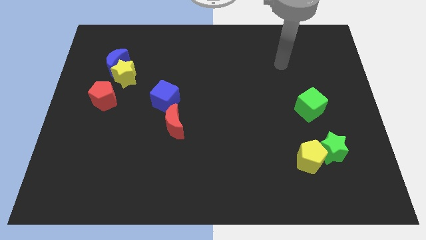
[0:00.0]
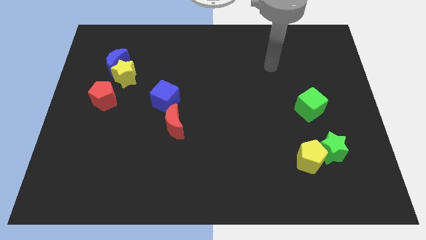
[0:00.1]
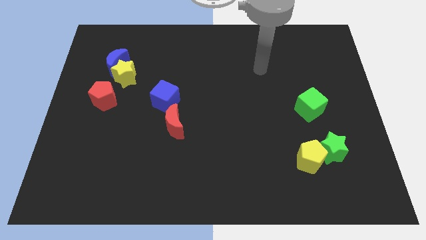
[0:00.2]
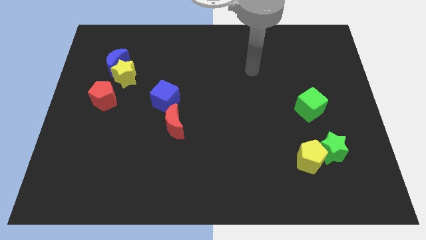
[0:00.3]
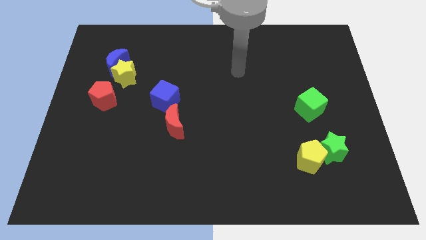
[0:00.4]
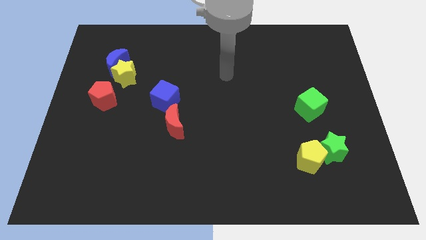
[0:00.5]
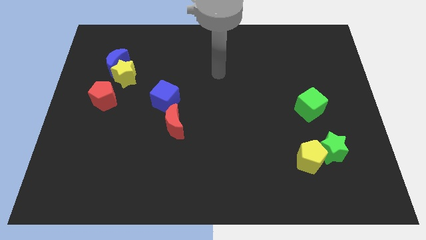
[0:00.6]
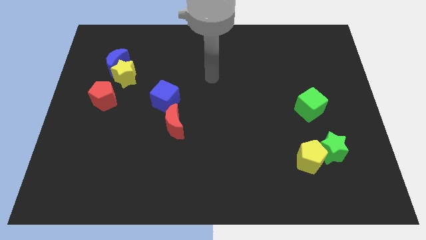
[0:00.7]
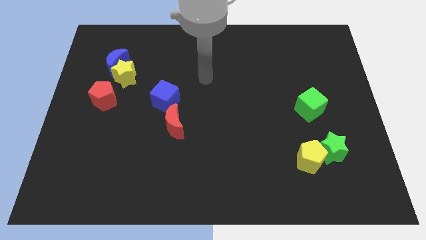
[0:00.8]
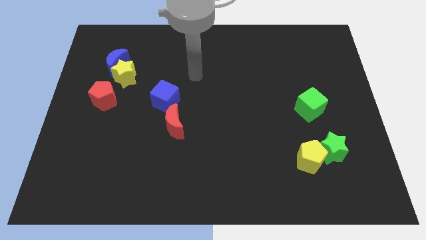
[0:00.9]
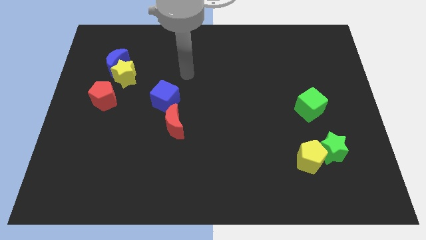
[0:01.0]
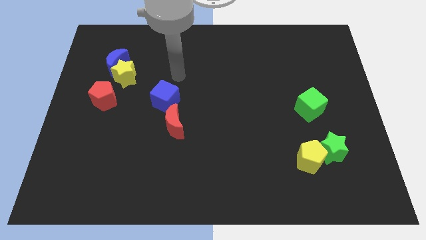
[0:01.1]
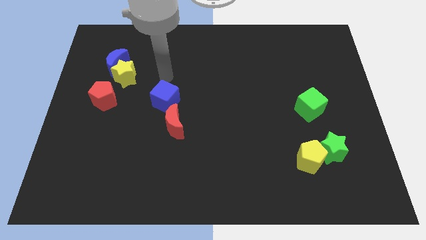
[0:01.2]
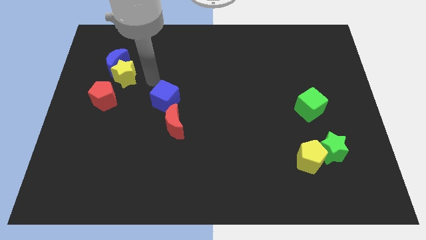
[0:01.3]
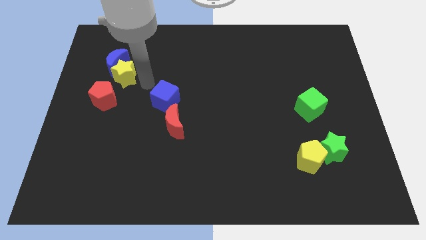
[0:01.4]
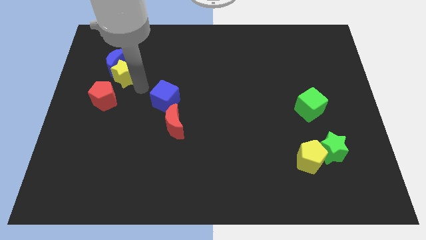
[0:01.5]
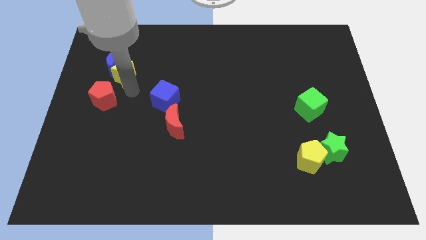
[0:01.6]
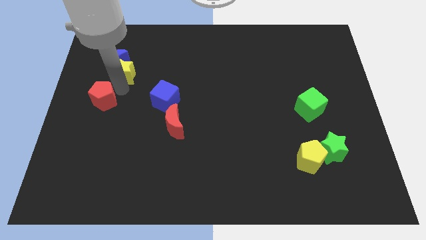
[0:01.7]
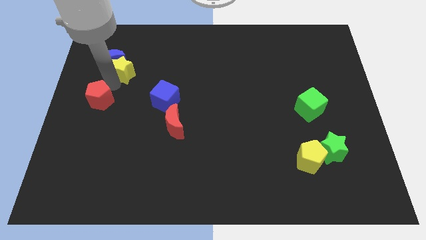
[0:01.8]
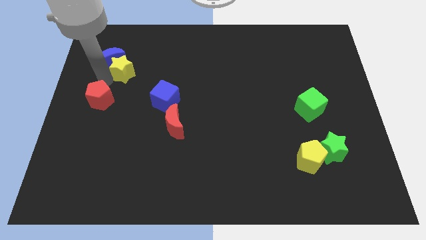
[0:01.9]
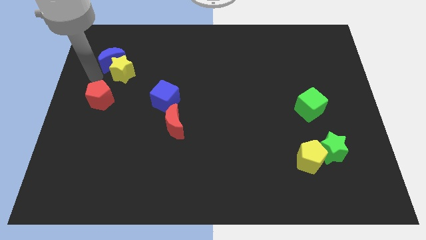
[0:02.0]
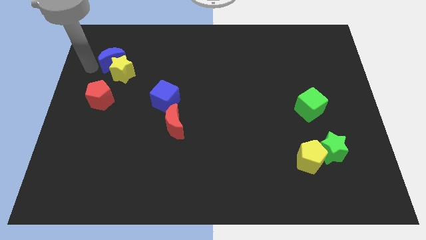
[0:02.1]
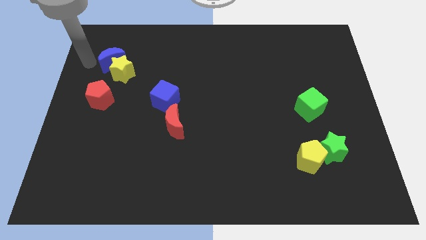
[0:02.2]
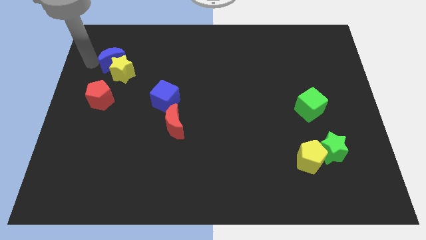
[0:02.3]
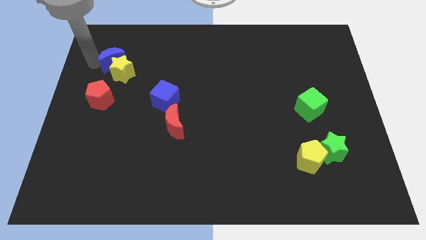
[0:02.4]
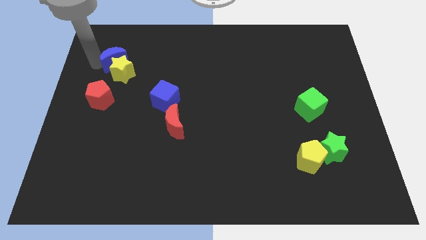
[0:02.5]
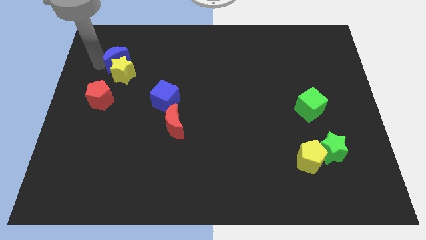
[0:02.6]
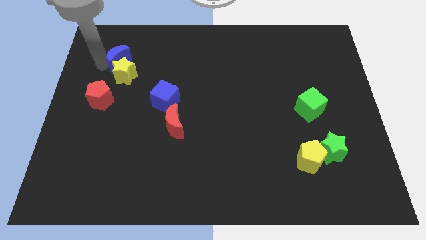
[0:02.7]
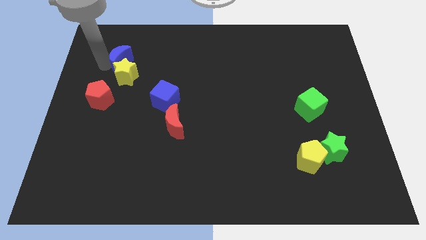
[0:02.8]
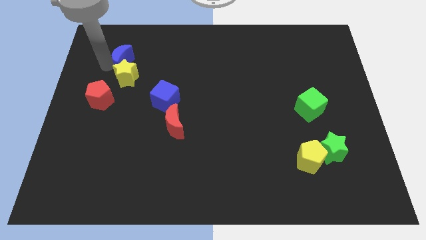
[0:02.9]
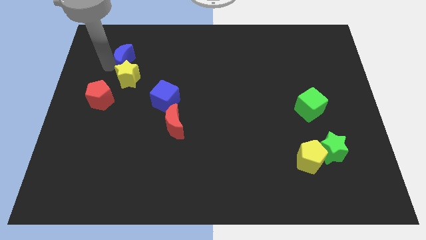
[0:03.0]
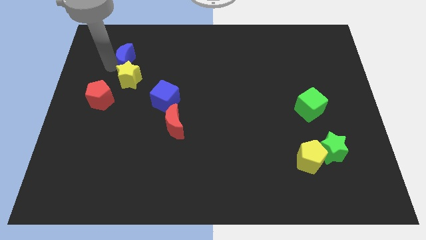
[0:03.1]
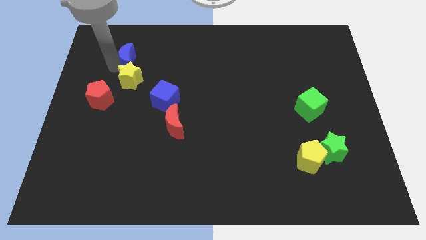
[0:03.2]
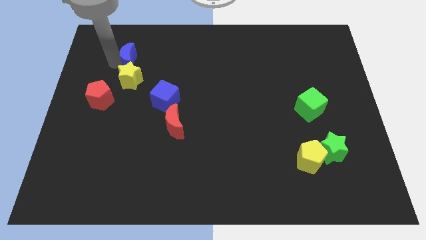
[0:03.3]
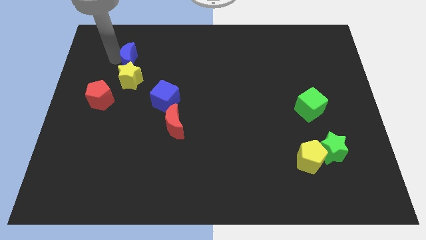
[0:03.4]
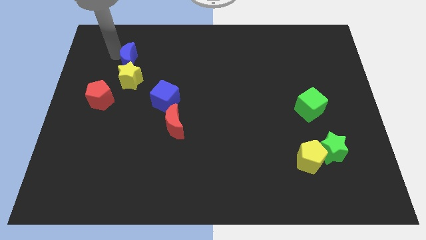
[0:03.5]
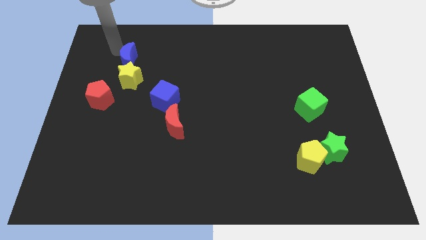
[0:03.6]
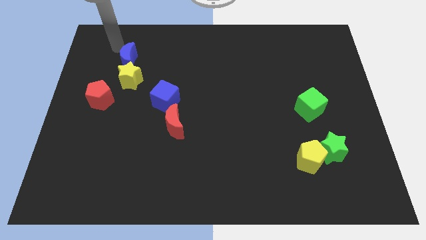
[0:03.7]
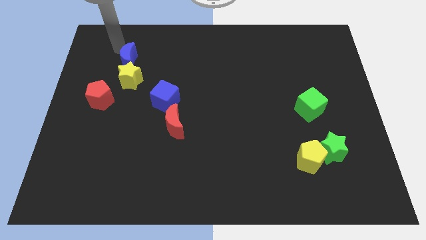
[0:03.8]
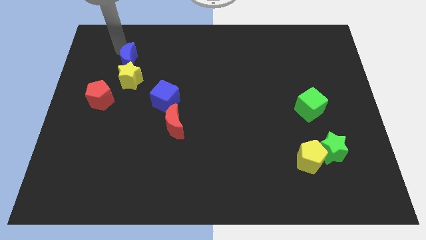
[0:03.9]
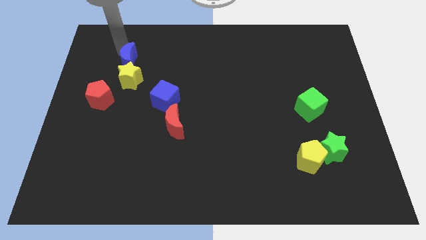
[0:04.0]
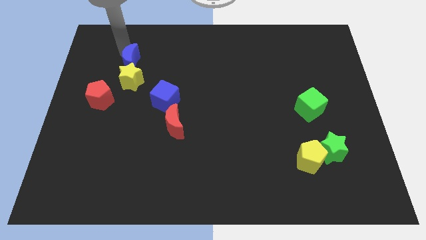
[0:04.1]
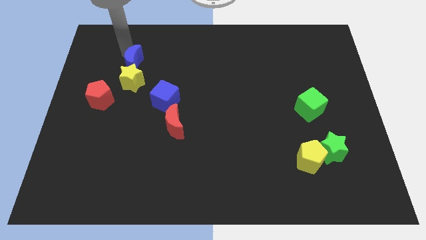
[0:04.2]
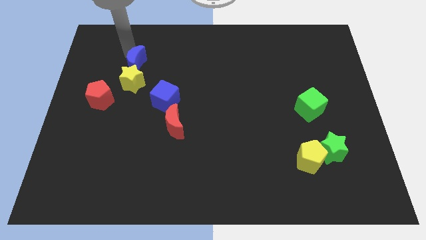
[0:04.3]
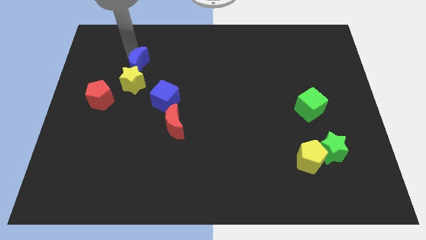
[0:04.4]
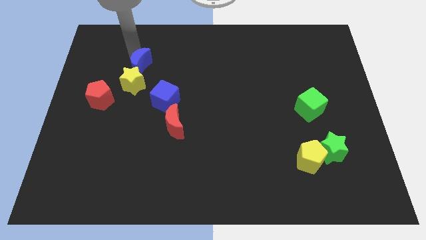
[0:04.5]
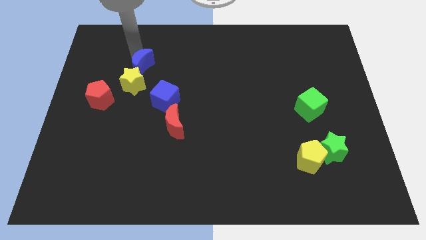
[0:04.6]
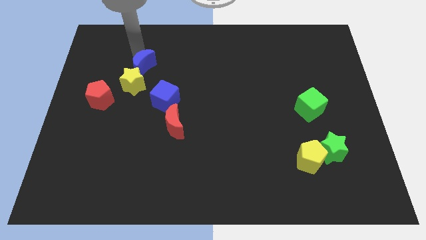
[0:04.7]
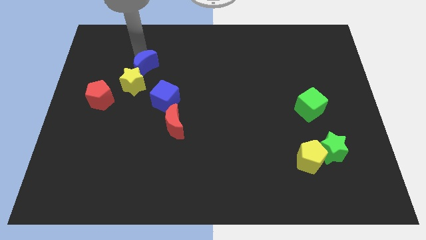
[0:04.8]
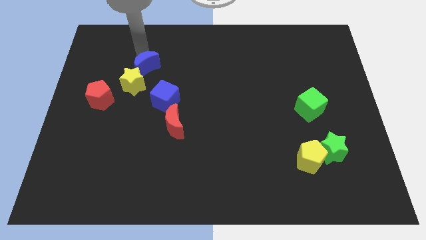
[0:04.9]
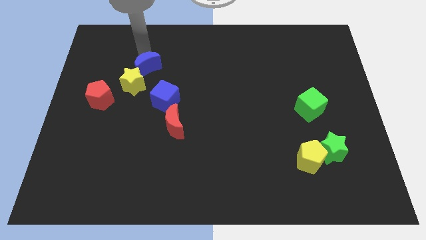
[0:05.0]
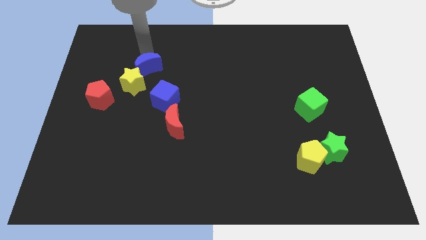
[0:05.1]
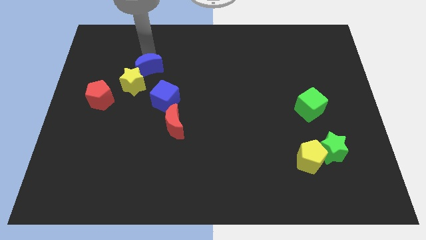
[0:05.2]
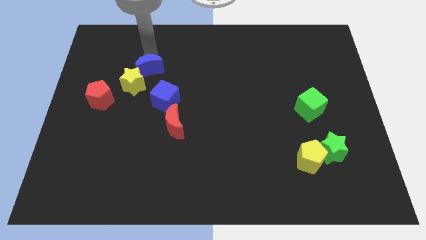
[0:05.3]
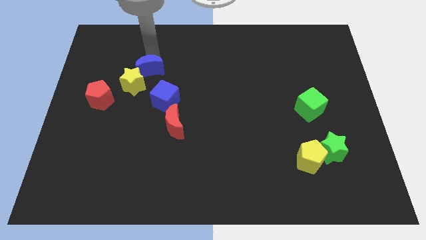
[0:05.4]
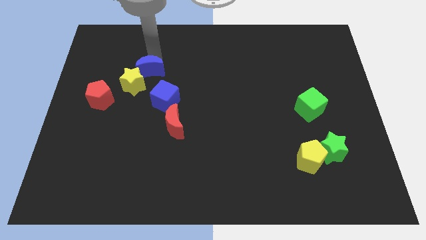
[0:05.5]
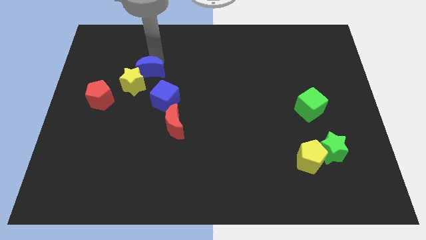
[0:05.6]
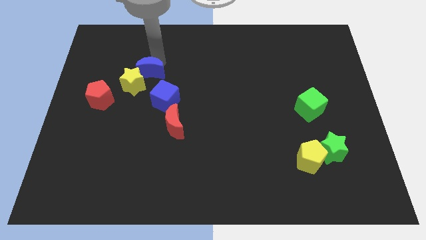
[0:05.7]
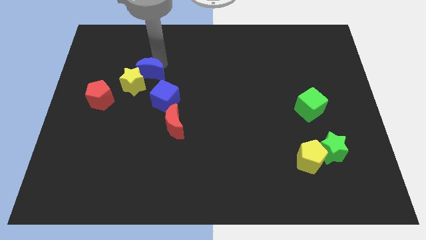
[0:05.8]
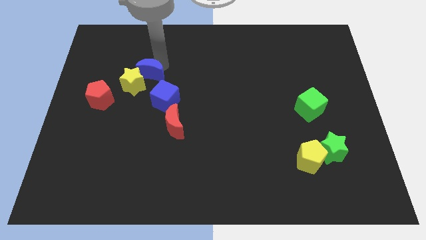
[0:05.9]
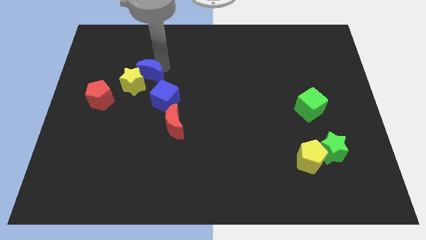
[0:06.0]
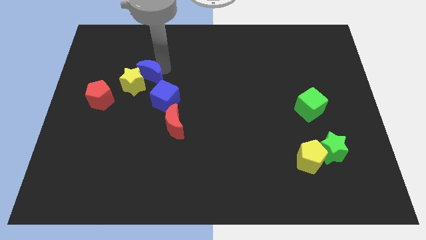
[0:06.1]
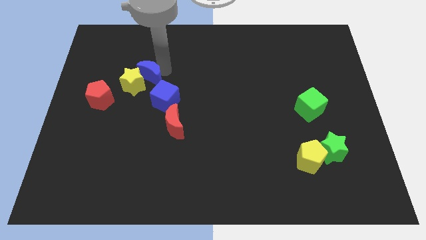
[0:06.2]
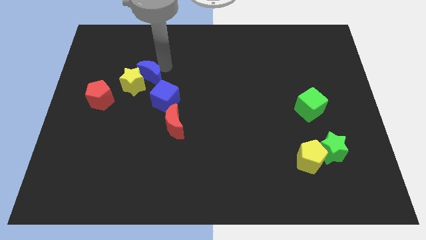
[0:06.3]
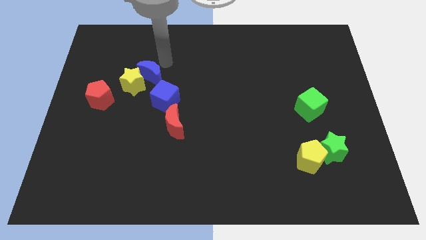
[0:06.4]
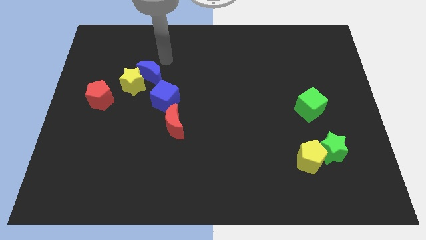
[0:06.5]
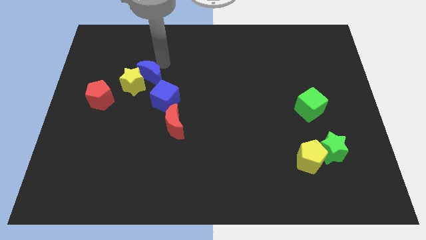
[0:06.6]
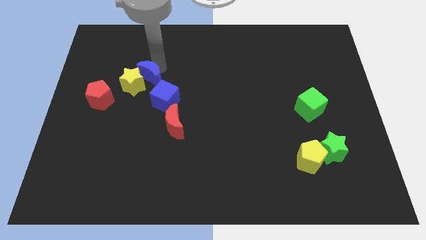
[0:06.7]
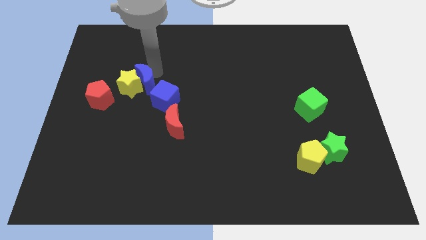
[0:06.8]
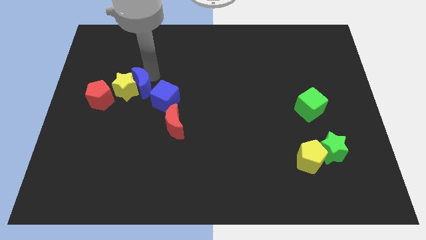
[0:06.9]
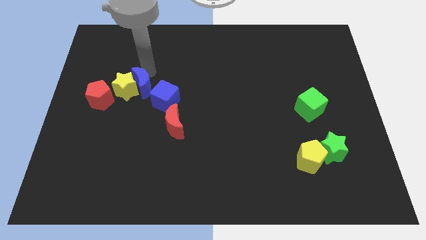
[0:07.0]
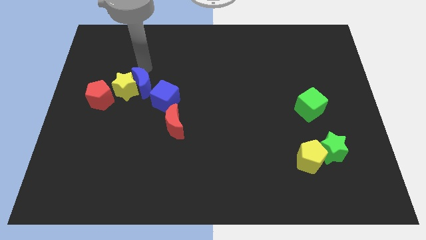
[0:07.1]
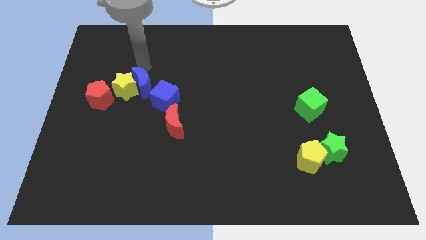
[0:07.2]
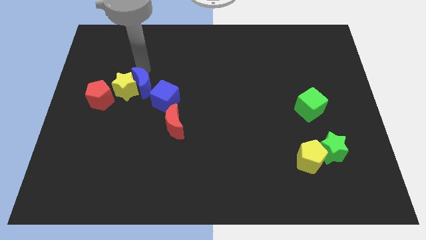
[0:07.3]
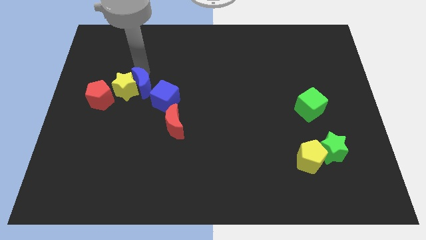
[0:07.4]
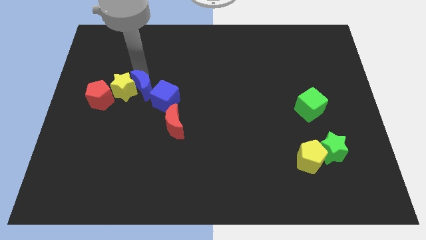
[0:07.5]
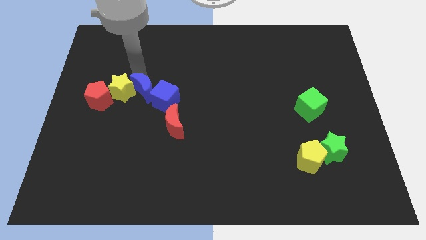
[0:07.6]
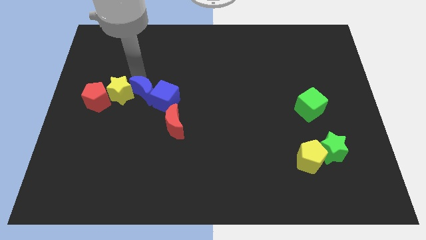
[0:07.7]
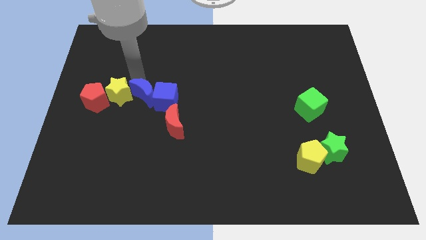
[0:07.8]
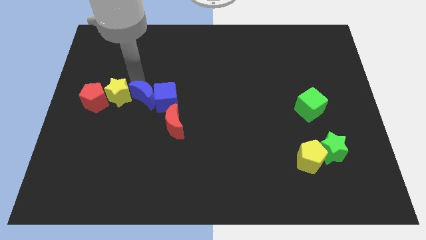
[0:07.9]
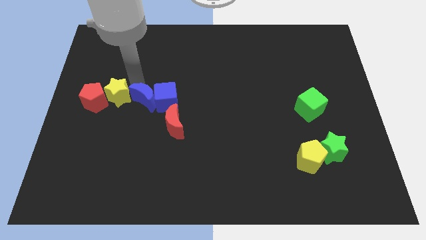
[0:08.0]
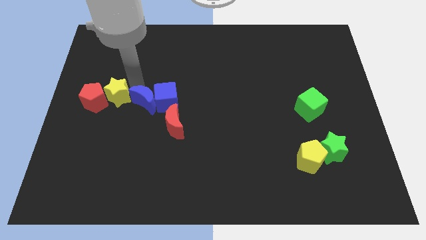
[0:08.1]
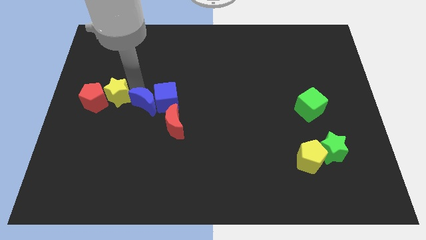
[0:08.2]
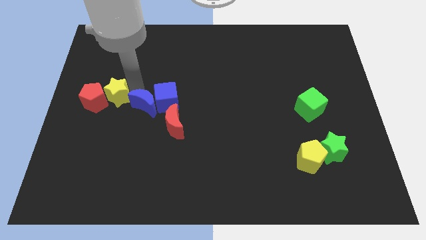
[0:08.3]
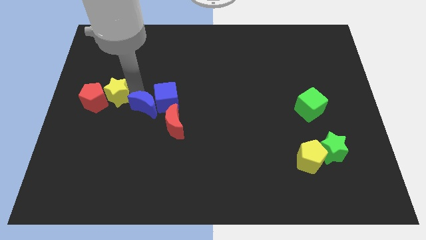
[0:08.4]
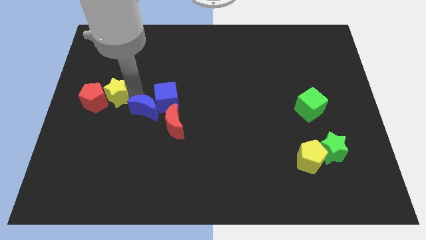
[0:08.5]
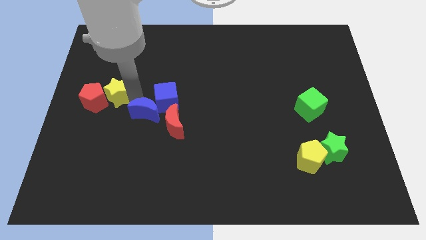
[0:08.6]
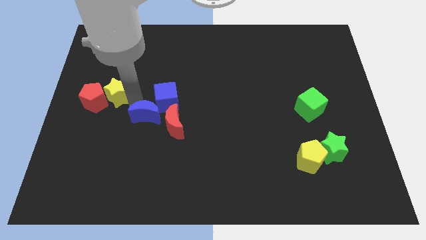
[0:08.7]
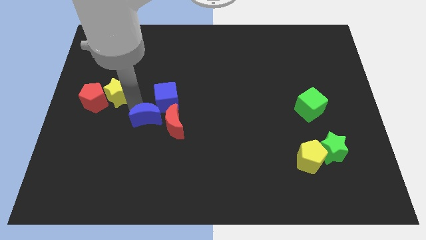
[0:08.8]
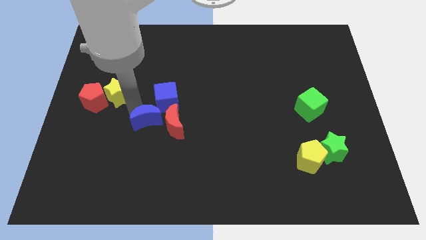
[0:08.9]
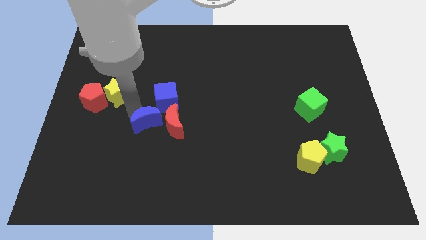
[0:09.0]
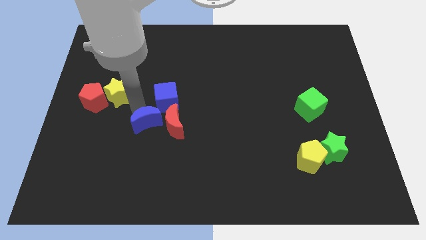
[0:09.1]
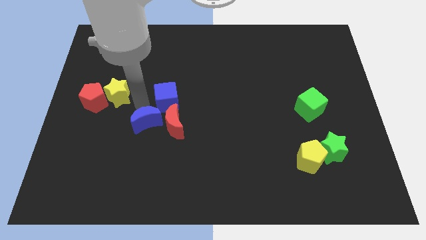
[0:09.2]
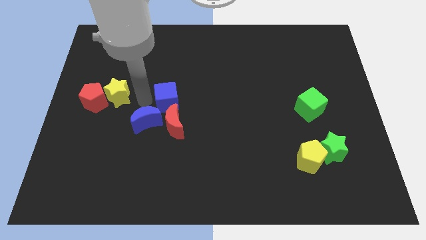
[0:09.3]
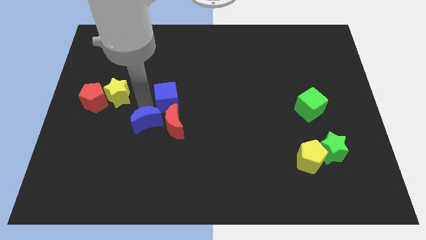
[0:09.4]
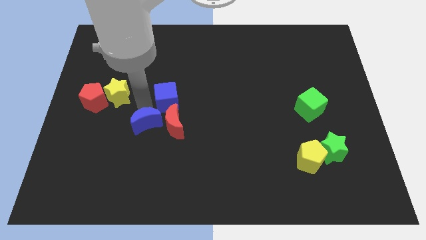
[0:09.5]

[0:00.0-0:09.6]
push the blue moon to the bottom left of the red moon
